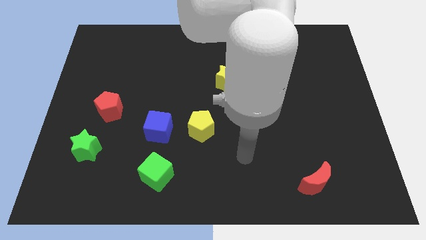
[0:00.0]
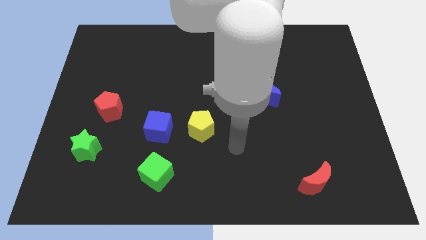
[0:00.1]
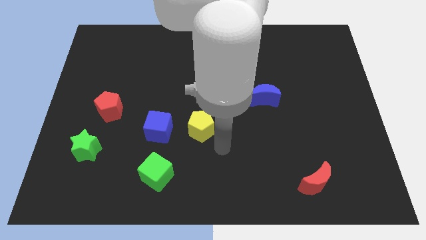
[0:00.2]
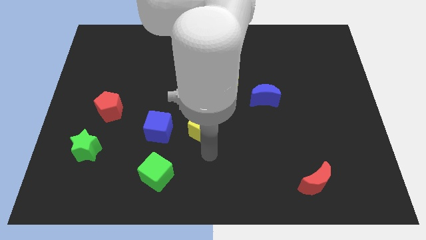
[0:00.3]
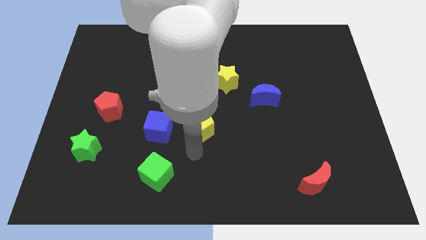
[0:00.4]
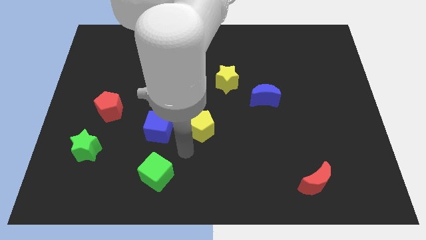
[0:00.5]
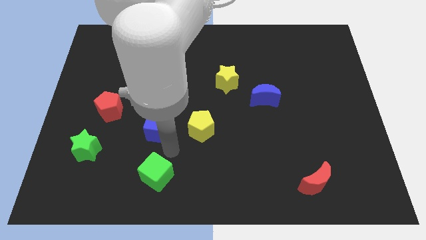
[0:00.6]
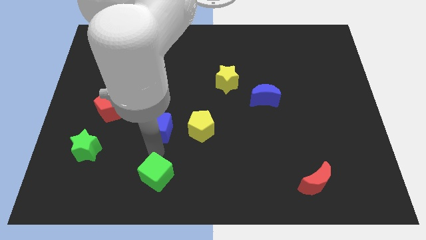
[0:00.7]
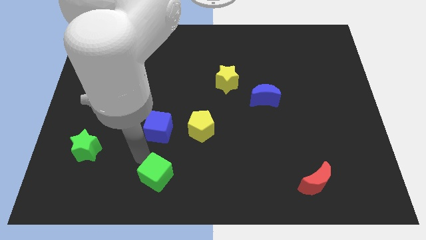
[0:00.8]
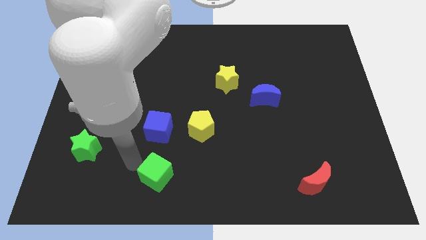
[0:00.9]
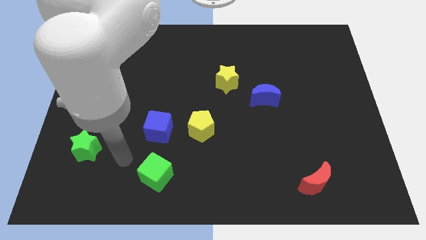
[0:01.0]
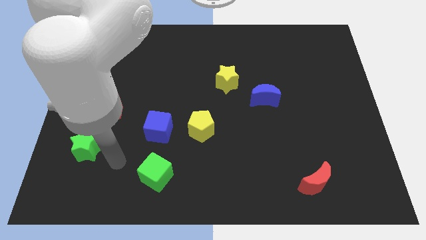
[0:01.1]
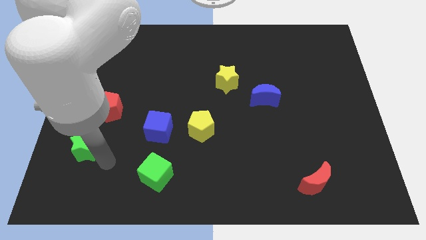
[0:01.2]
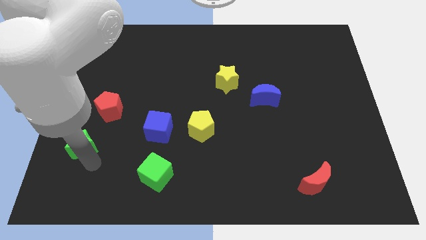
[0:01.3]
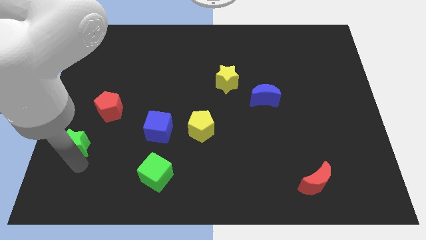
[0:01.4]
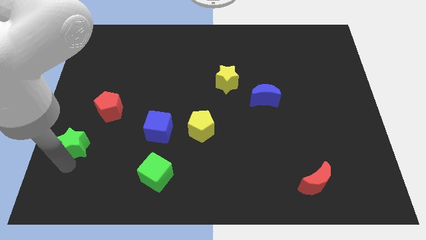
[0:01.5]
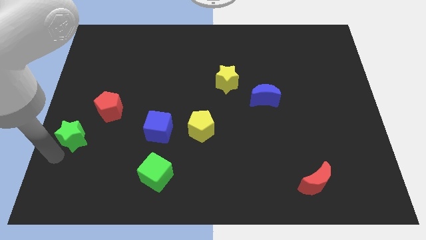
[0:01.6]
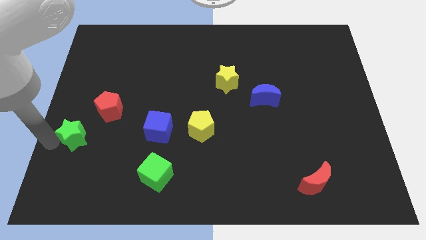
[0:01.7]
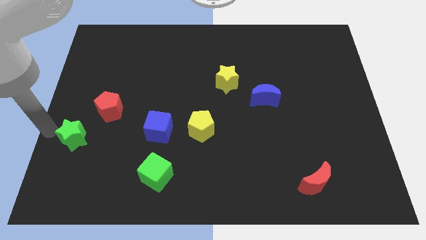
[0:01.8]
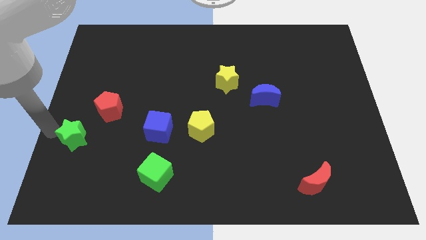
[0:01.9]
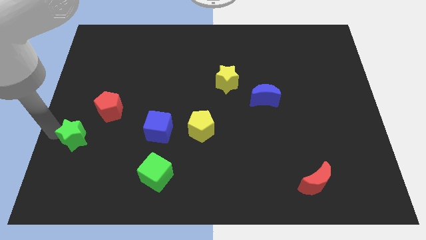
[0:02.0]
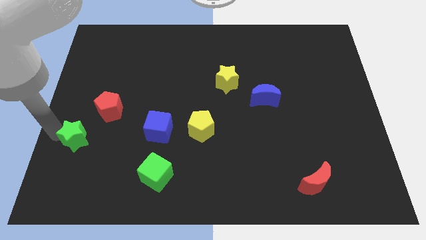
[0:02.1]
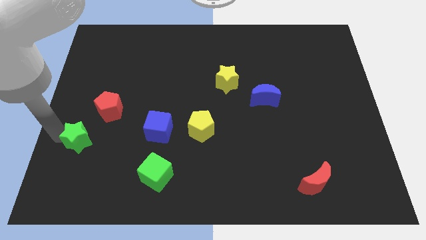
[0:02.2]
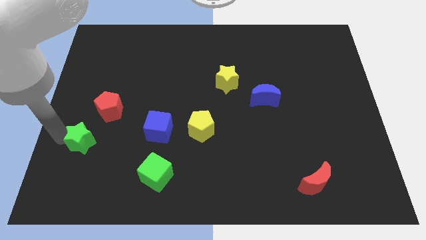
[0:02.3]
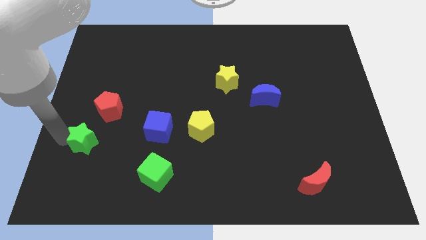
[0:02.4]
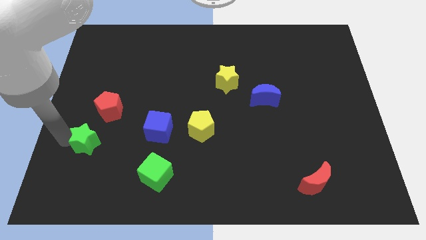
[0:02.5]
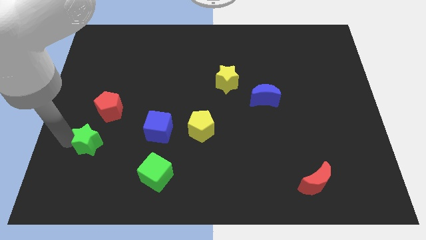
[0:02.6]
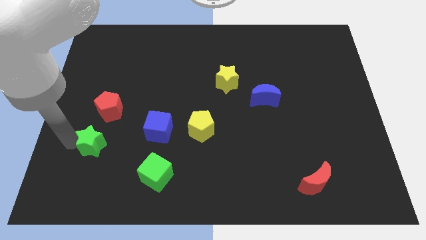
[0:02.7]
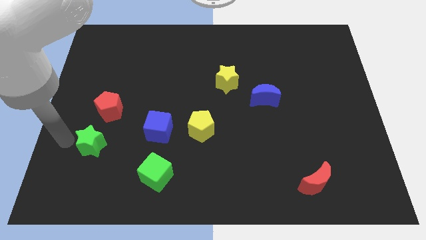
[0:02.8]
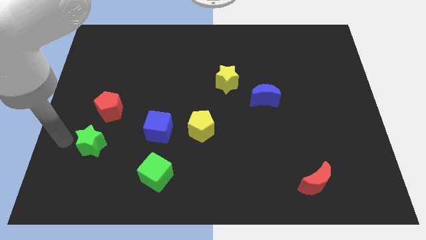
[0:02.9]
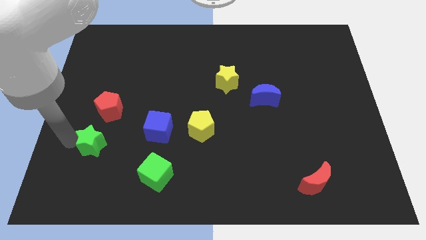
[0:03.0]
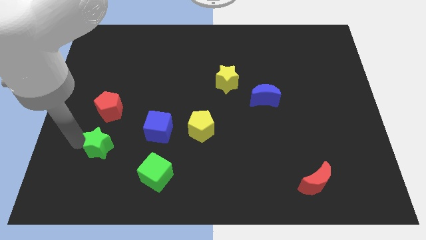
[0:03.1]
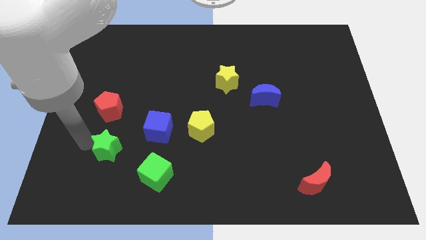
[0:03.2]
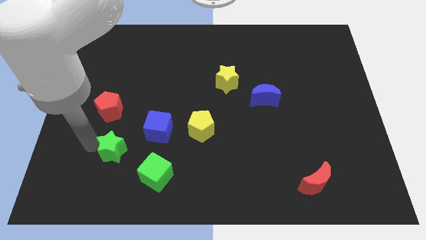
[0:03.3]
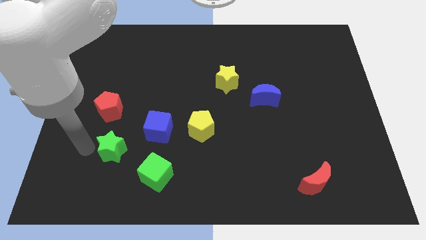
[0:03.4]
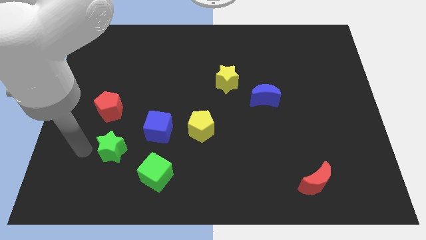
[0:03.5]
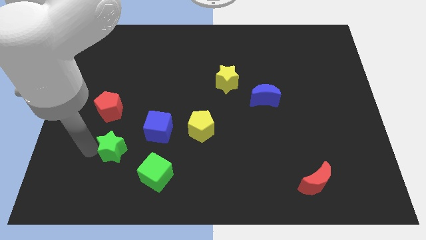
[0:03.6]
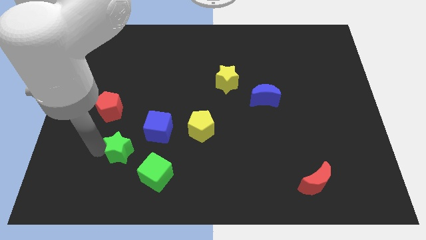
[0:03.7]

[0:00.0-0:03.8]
push the green star a little right

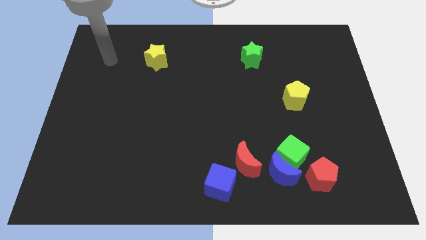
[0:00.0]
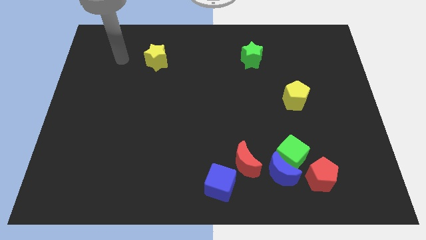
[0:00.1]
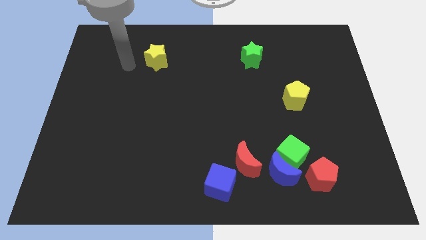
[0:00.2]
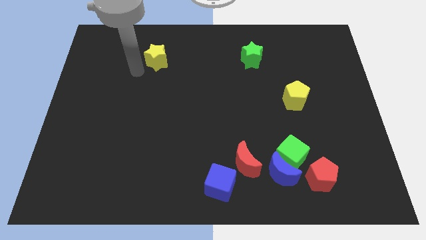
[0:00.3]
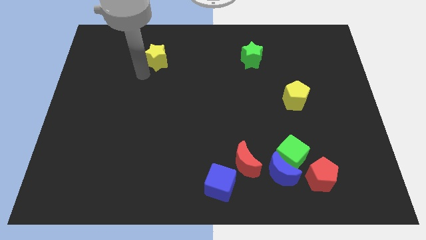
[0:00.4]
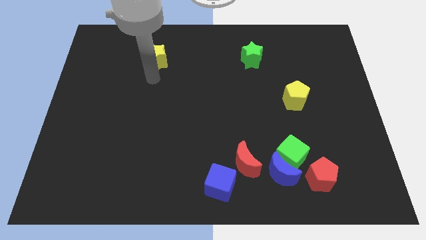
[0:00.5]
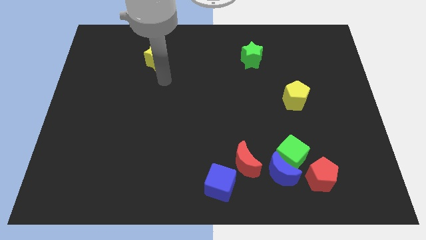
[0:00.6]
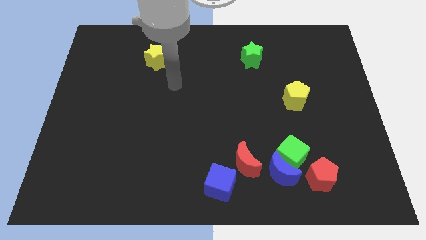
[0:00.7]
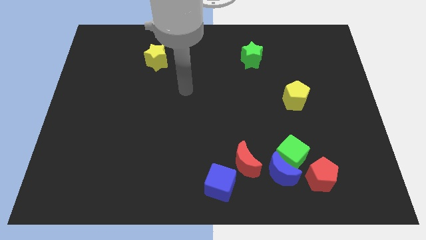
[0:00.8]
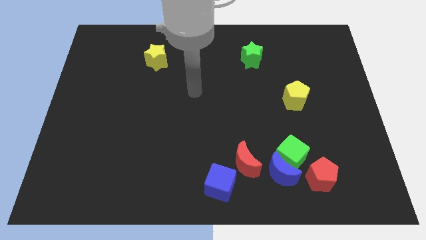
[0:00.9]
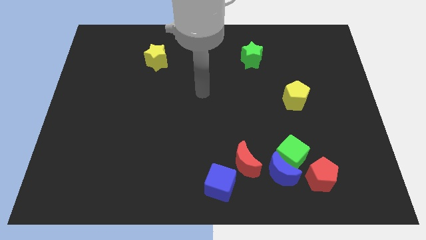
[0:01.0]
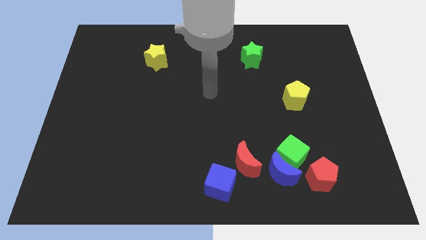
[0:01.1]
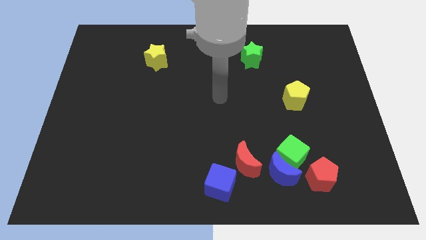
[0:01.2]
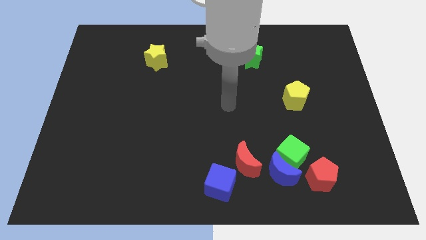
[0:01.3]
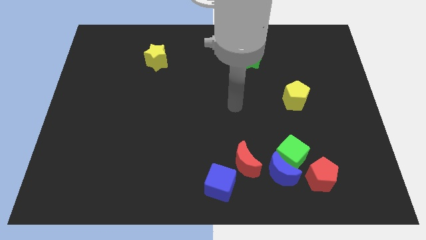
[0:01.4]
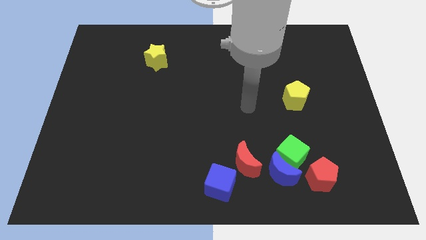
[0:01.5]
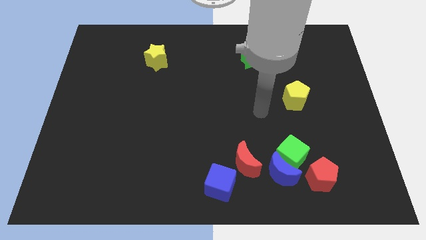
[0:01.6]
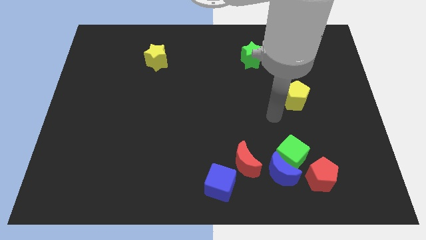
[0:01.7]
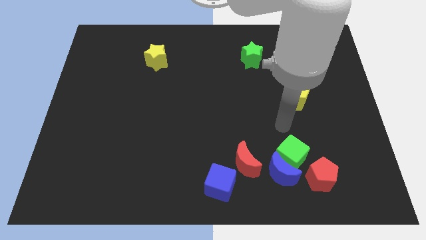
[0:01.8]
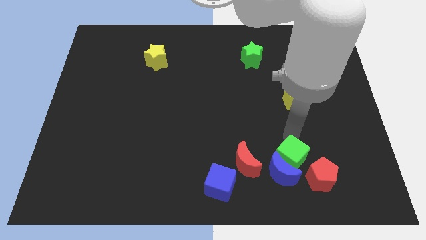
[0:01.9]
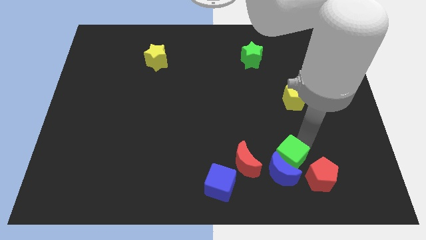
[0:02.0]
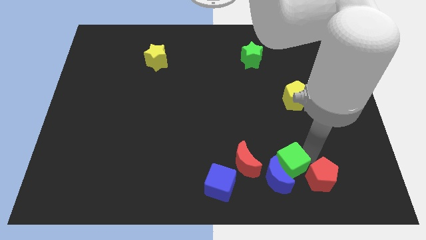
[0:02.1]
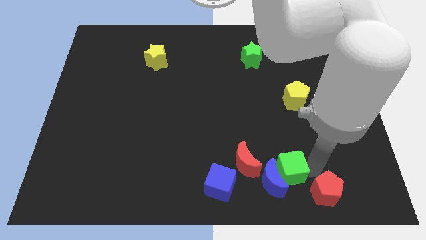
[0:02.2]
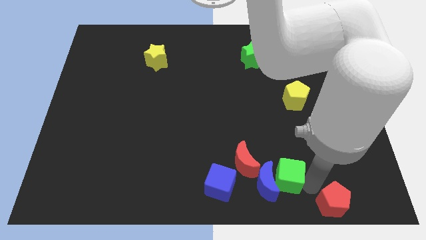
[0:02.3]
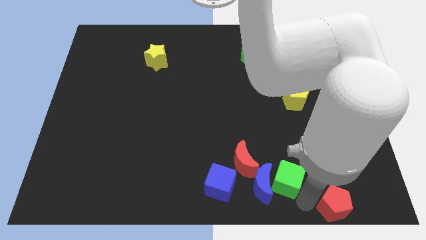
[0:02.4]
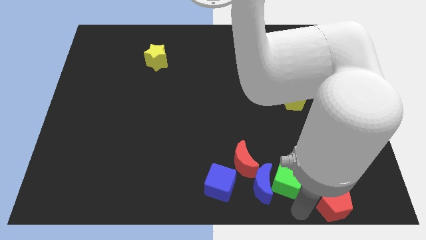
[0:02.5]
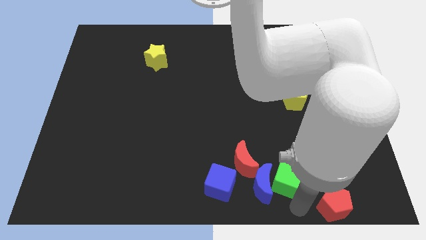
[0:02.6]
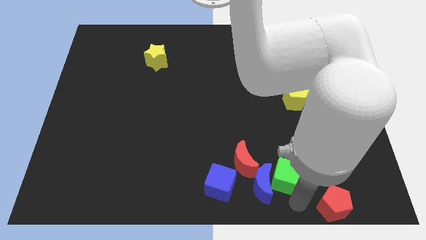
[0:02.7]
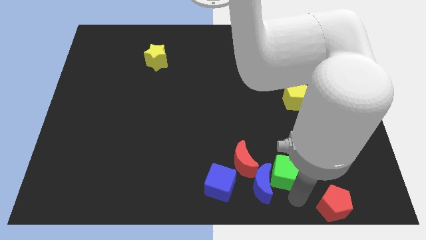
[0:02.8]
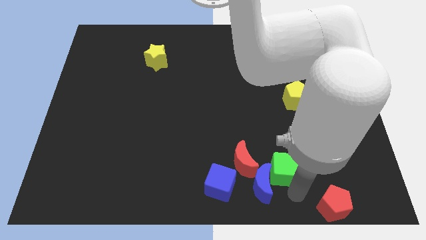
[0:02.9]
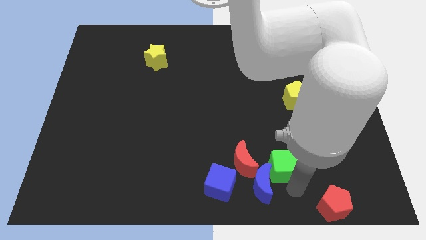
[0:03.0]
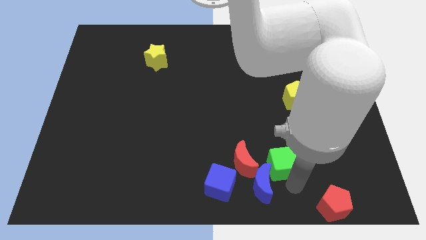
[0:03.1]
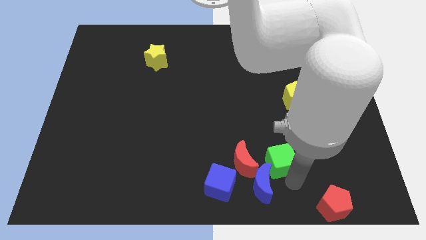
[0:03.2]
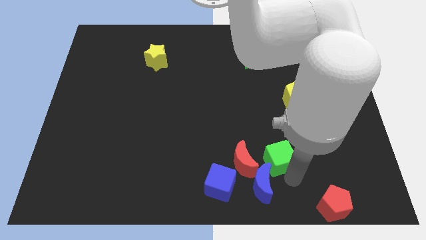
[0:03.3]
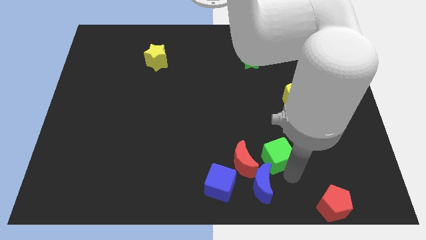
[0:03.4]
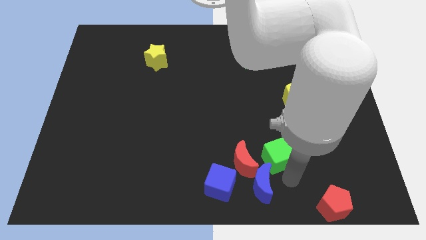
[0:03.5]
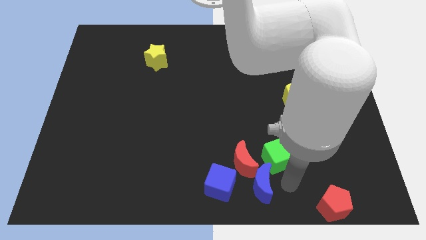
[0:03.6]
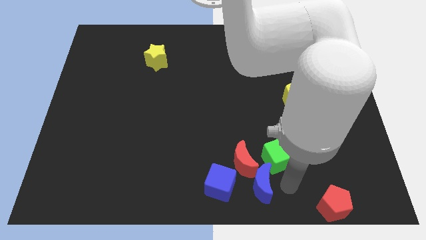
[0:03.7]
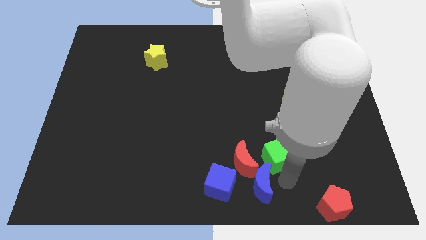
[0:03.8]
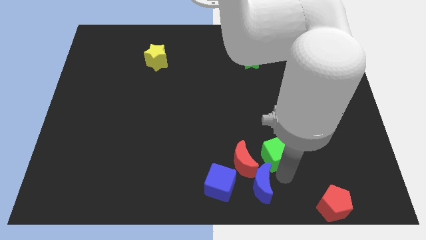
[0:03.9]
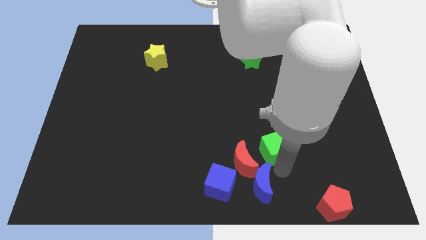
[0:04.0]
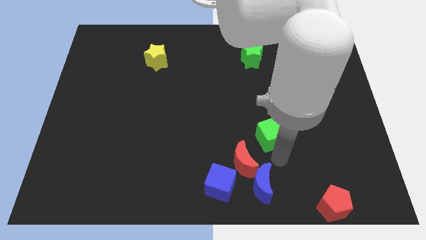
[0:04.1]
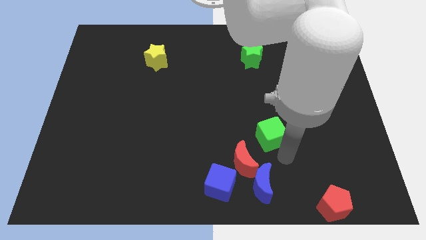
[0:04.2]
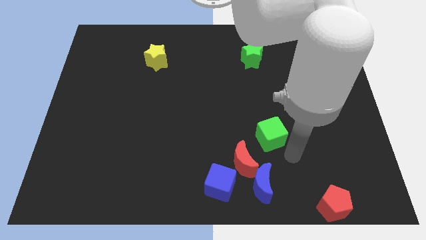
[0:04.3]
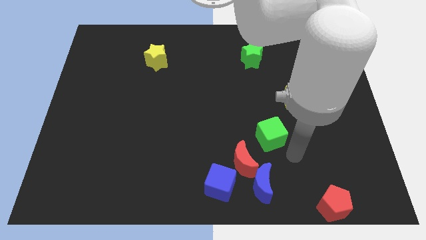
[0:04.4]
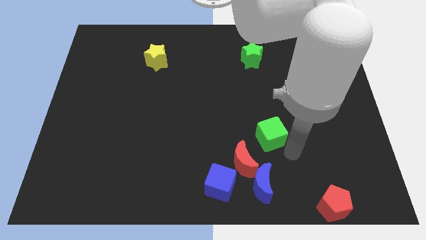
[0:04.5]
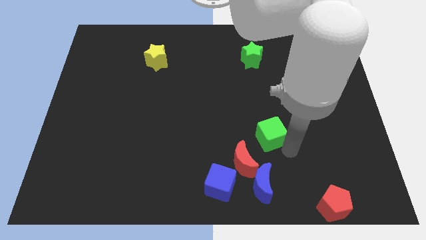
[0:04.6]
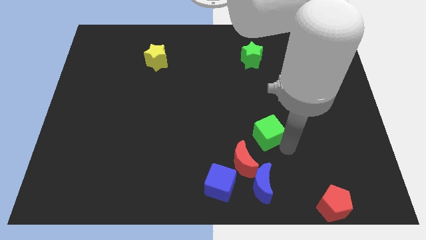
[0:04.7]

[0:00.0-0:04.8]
push the green cube somewhat up and to the left diagonally
